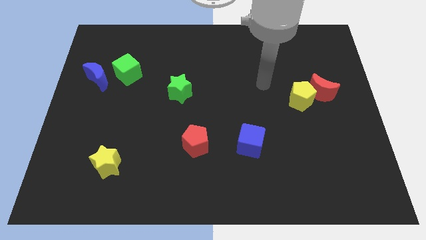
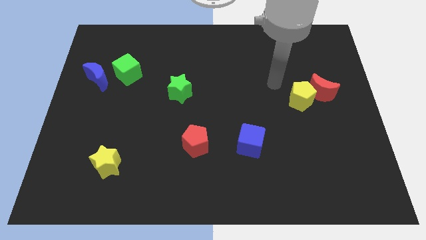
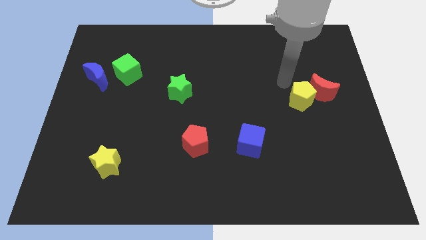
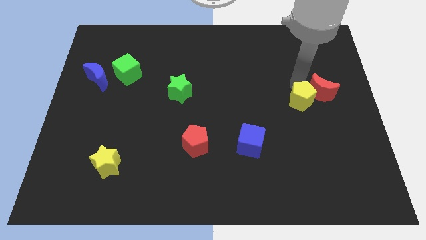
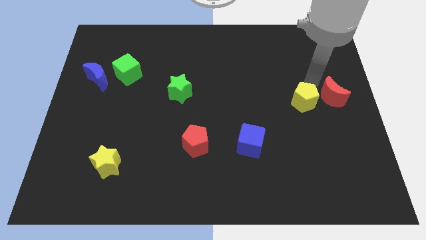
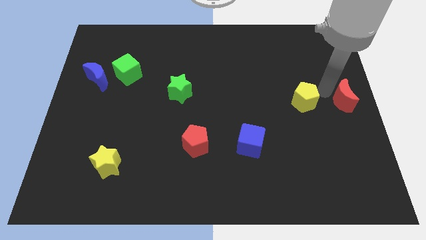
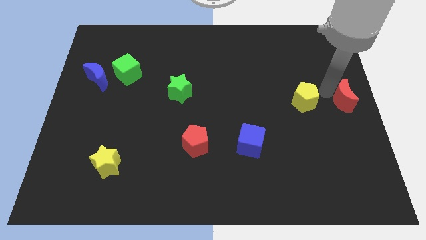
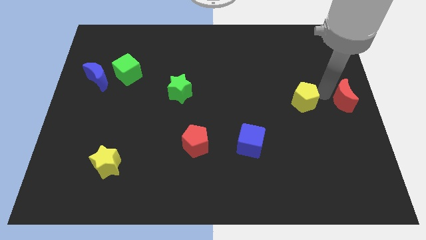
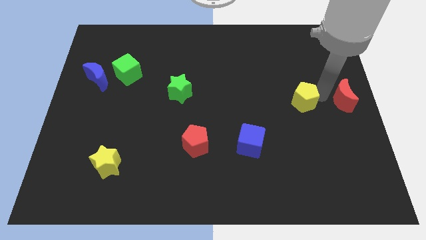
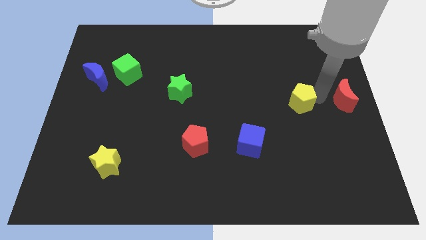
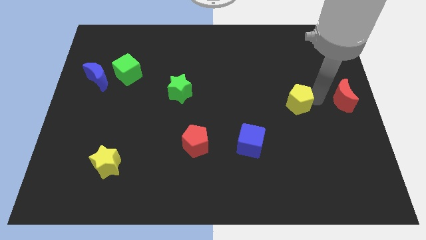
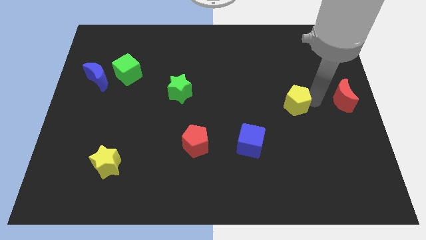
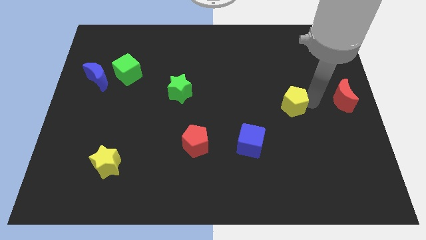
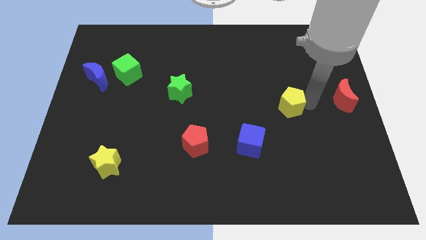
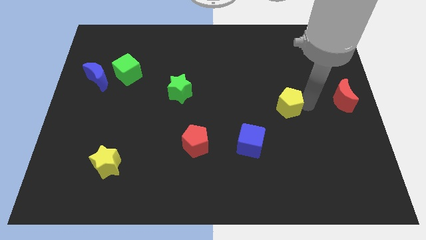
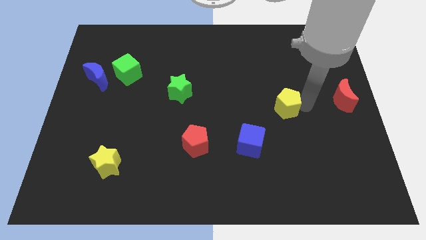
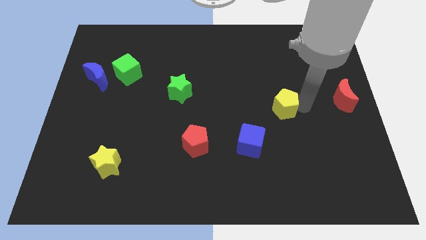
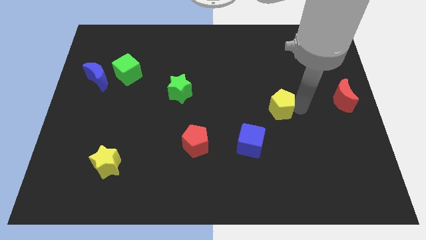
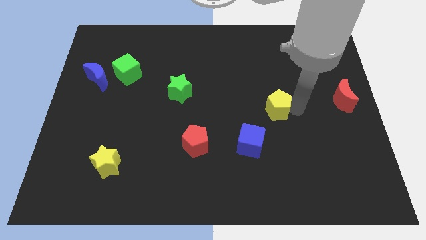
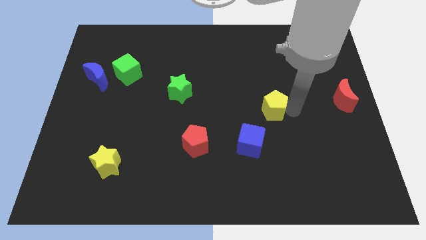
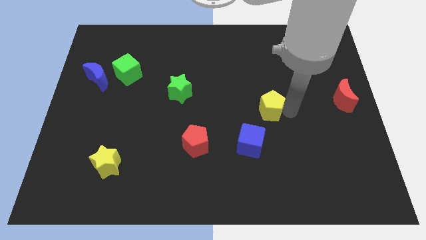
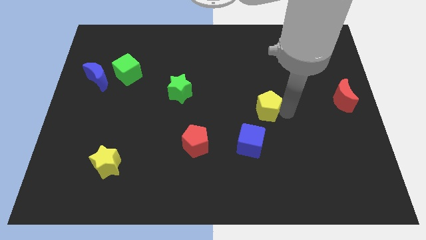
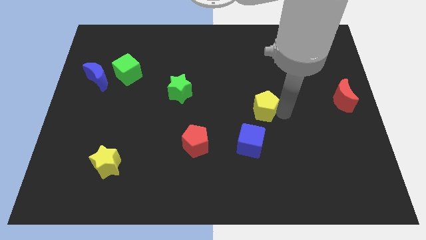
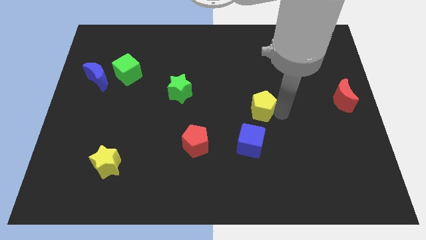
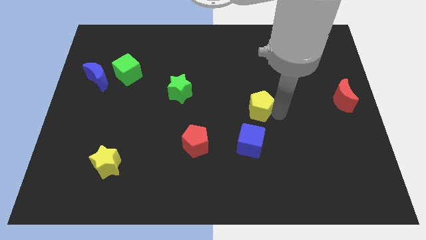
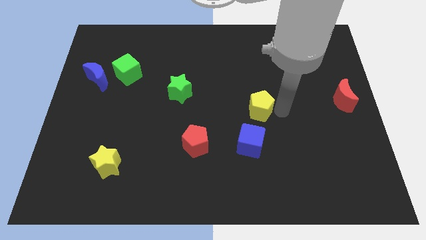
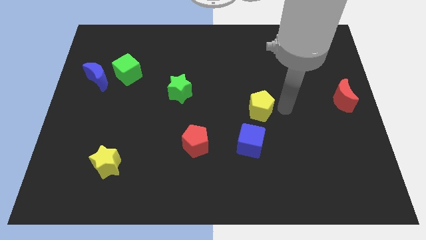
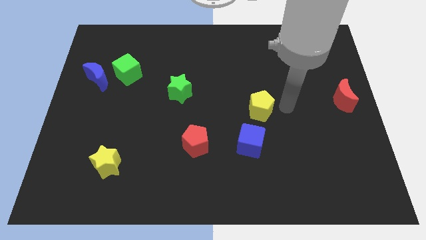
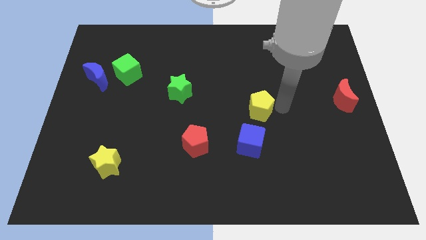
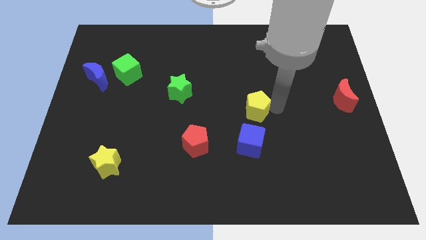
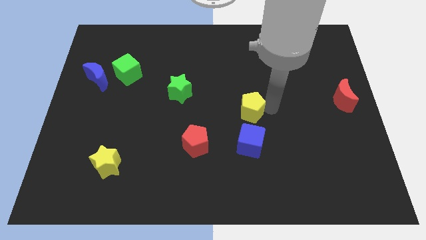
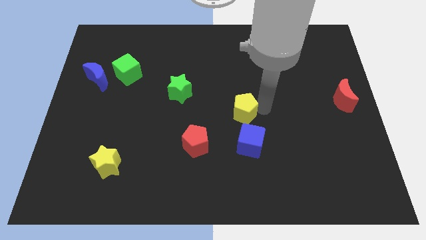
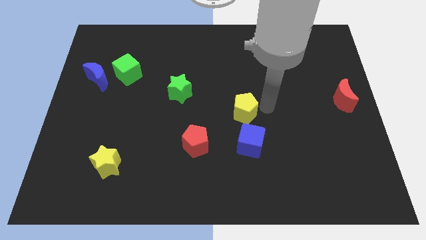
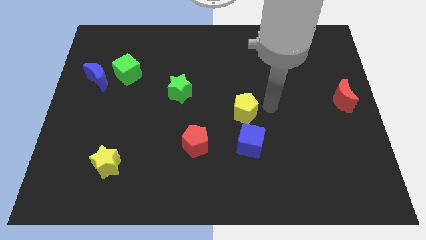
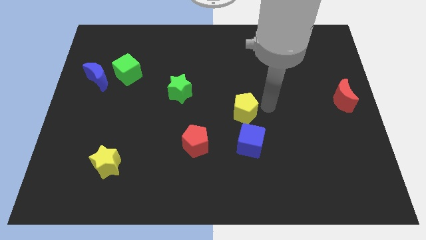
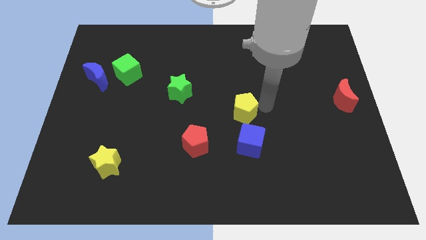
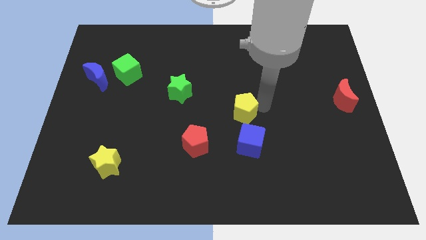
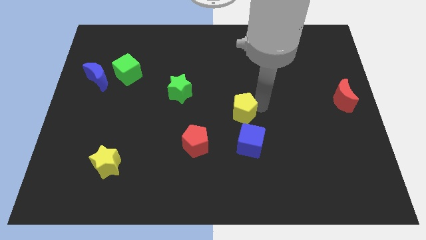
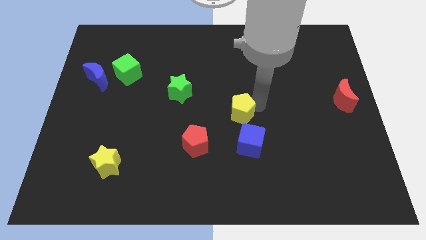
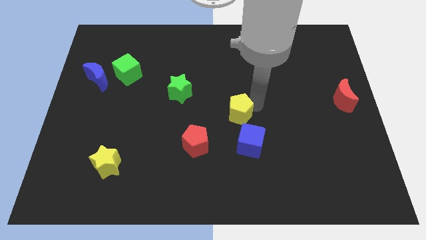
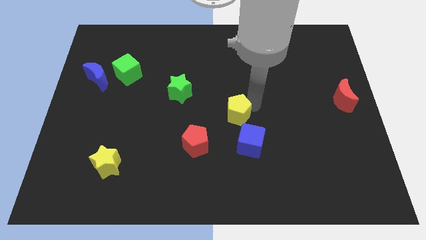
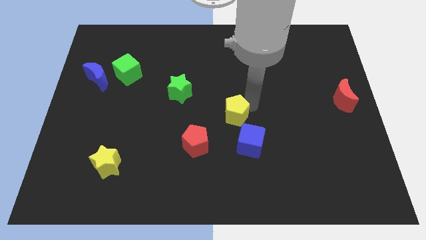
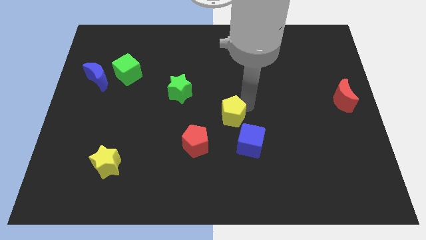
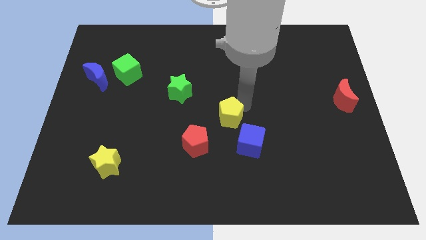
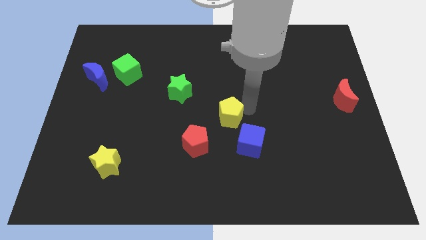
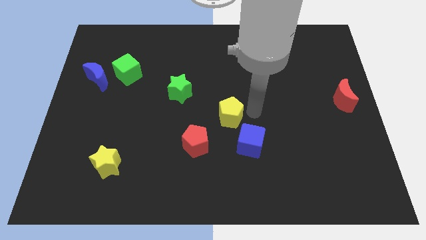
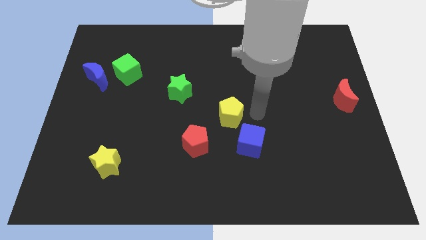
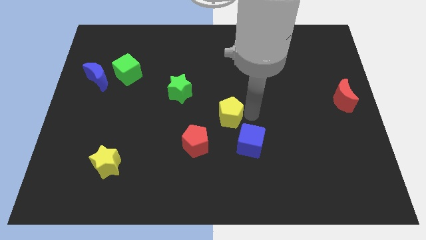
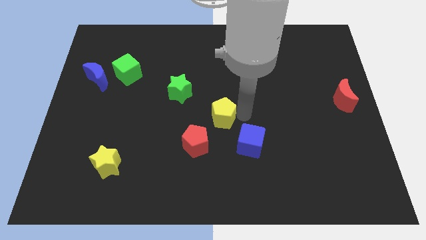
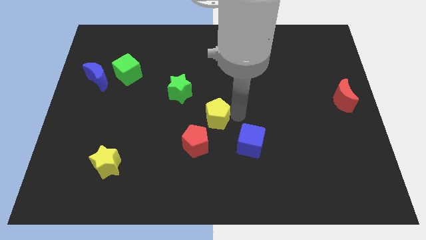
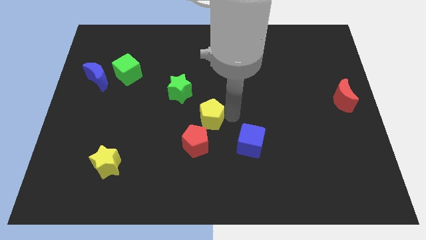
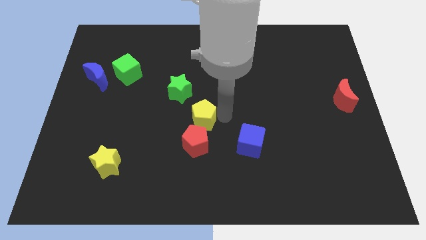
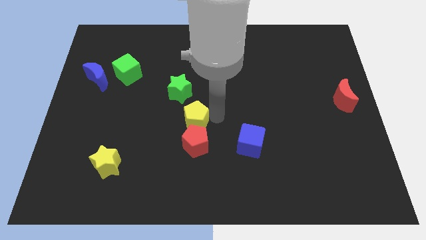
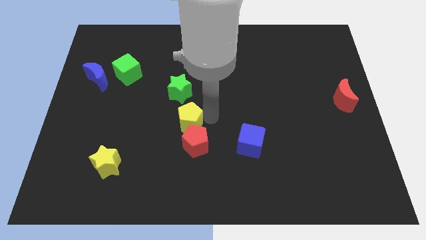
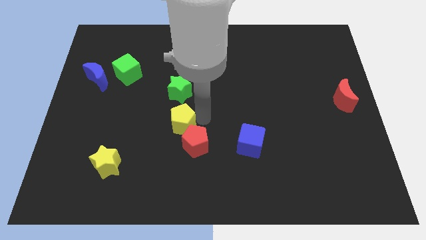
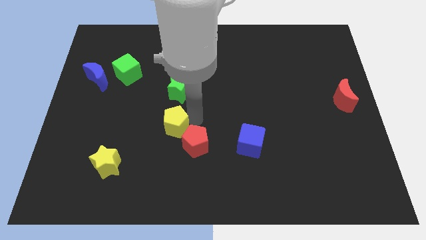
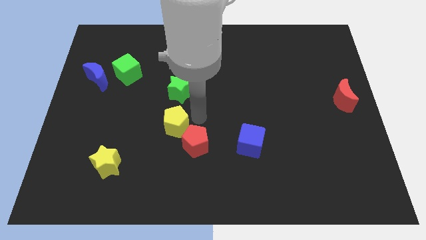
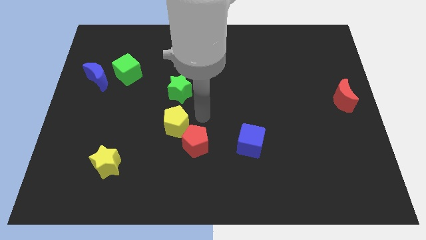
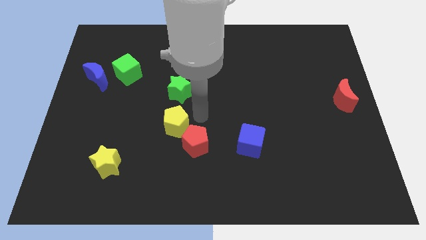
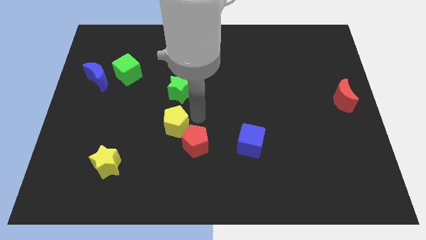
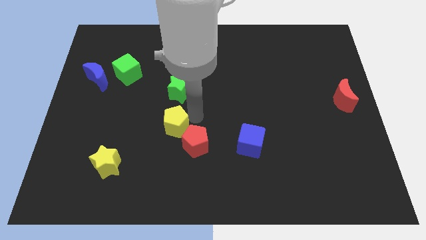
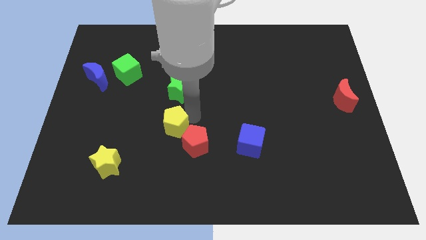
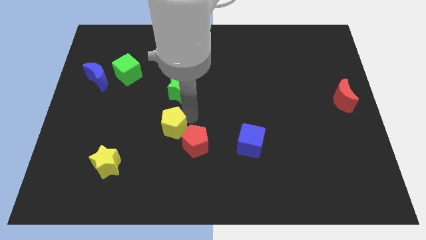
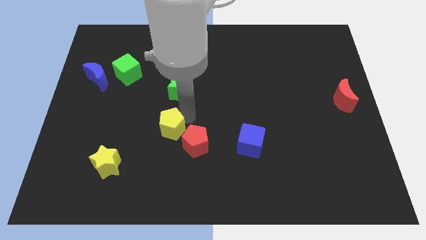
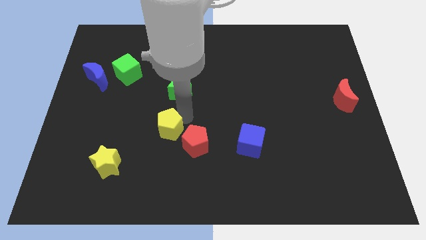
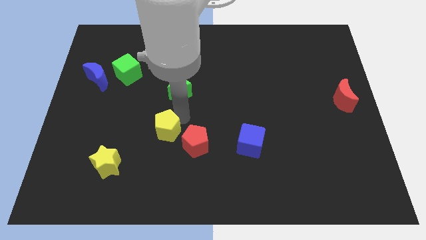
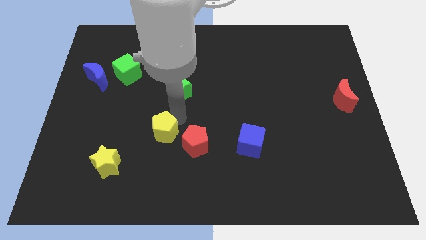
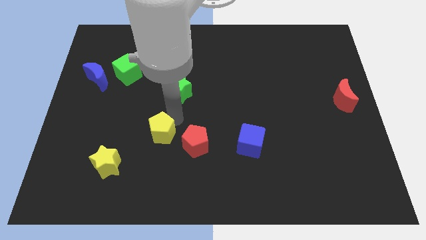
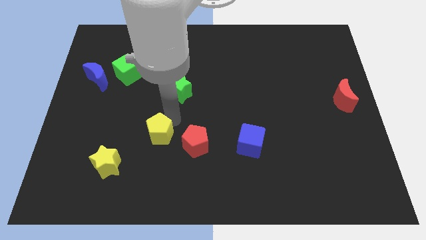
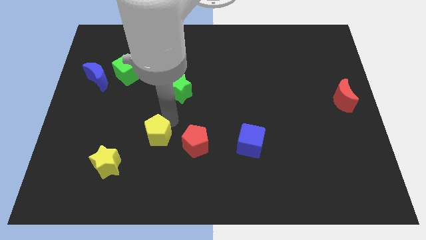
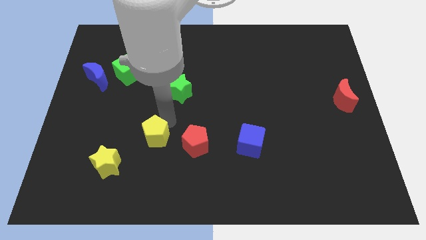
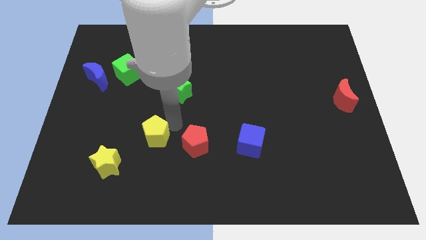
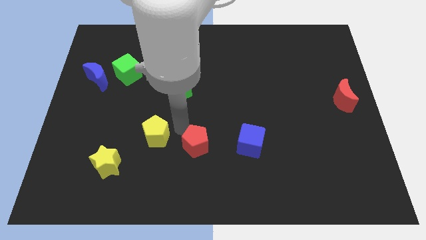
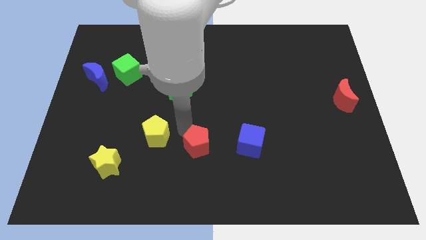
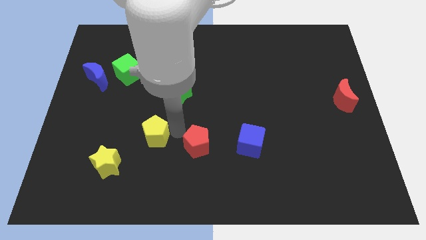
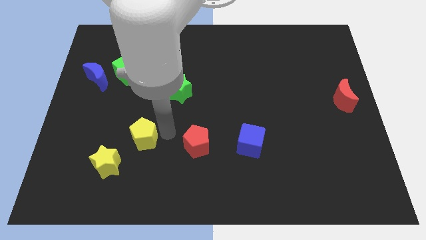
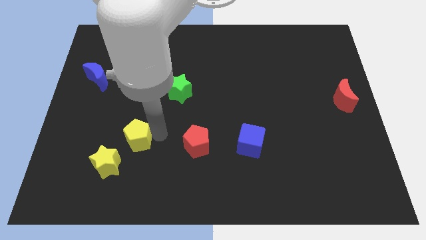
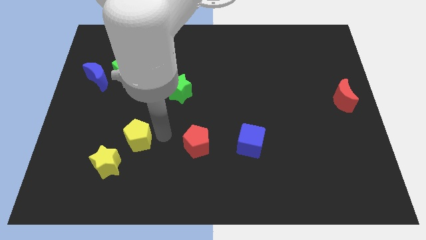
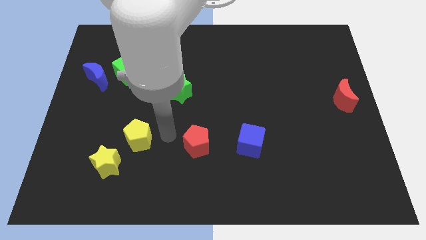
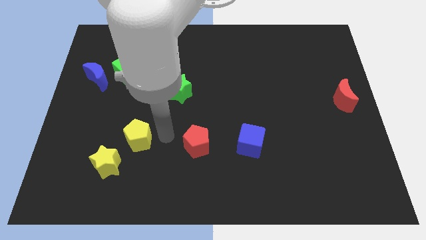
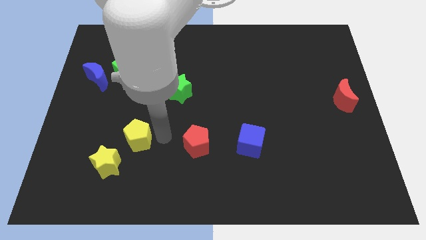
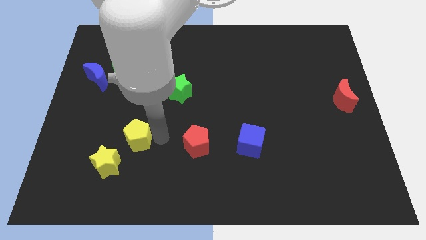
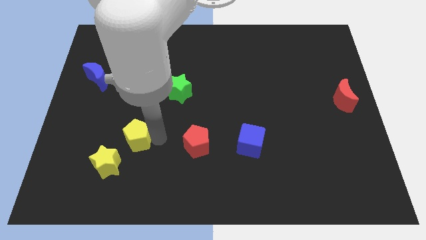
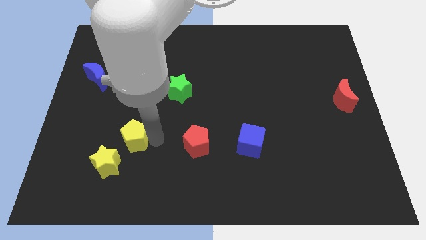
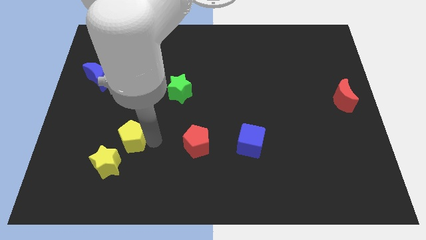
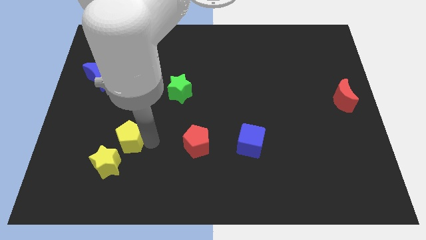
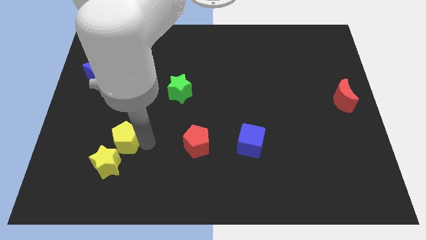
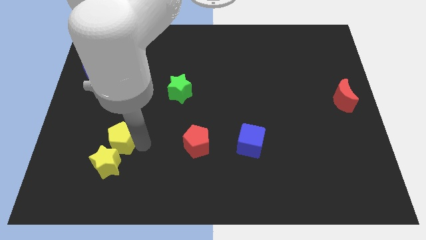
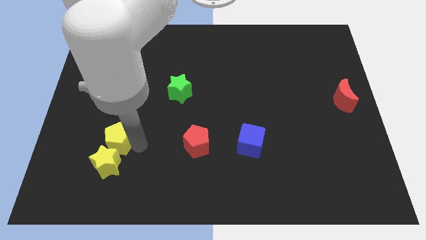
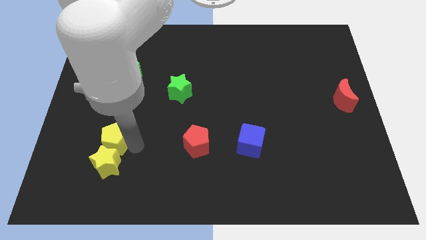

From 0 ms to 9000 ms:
slide the yellow pentagon to the top left of the yellow star
